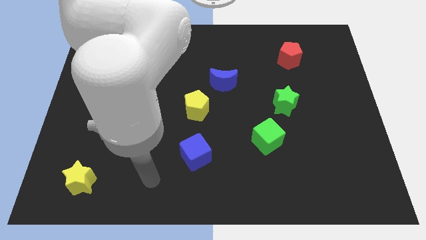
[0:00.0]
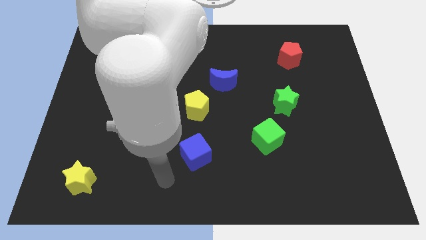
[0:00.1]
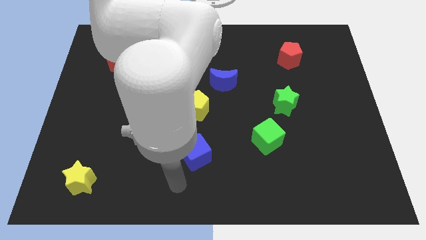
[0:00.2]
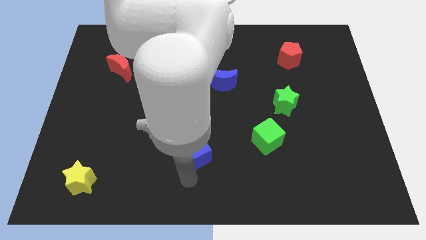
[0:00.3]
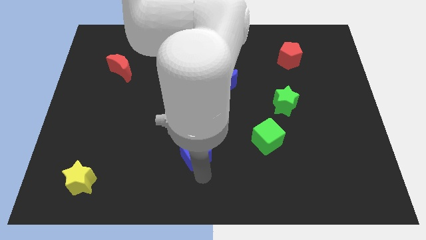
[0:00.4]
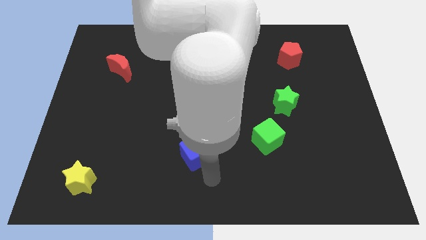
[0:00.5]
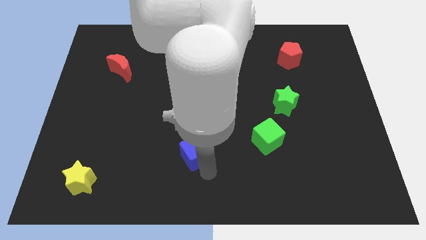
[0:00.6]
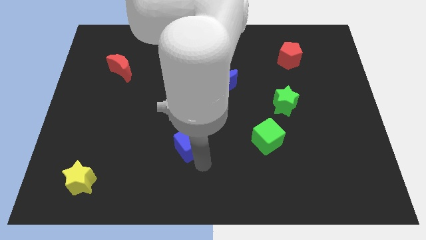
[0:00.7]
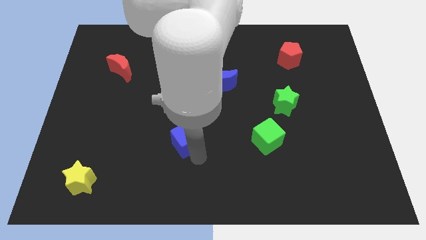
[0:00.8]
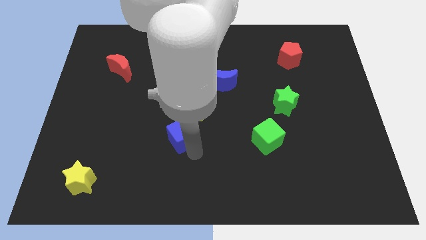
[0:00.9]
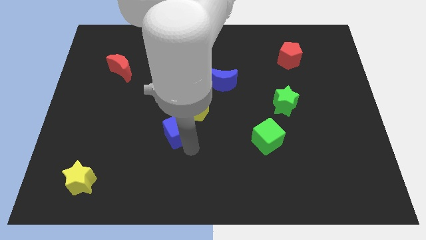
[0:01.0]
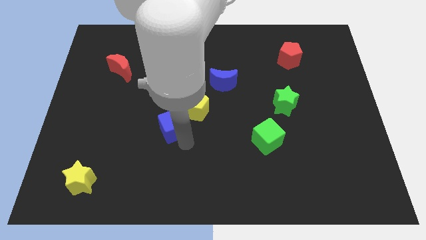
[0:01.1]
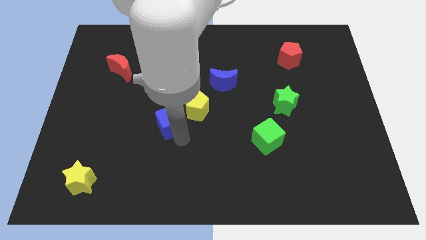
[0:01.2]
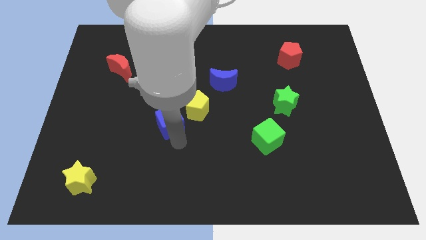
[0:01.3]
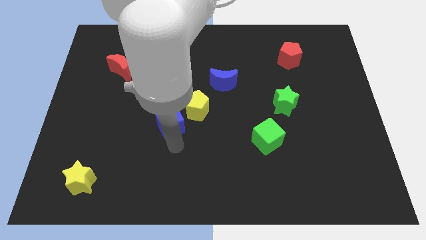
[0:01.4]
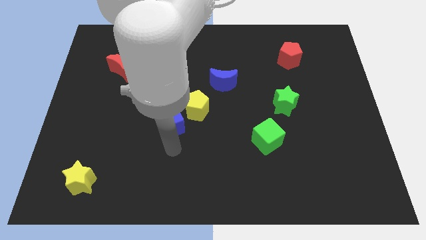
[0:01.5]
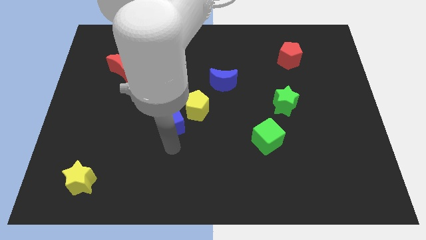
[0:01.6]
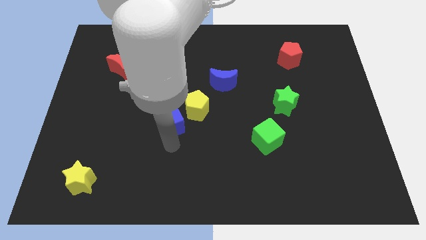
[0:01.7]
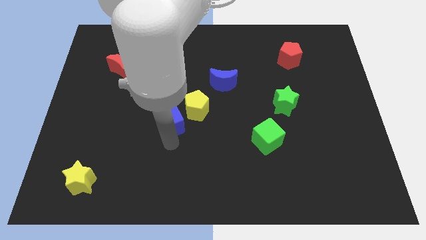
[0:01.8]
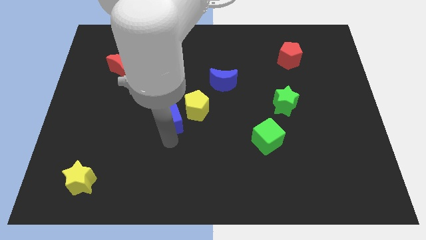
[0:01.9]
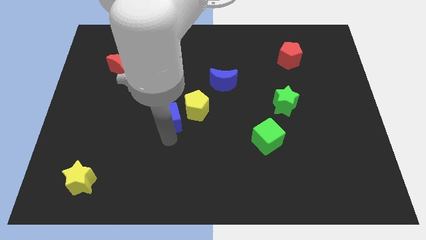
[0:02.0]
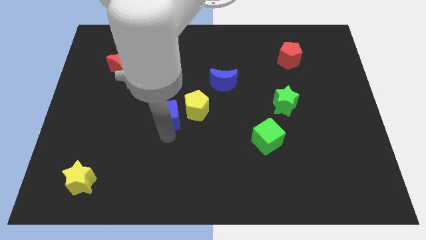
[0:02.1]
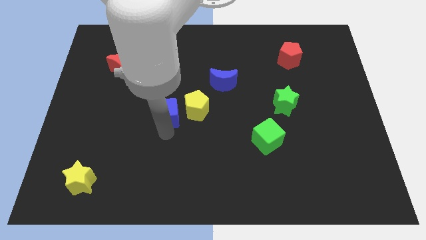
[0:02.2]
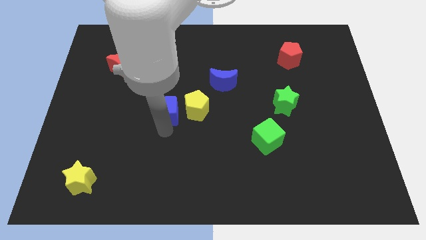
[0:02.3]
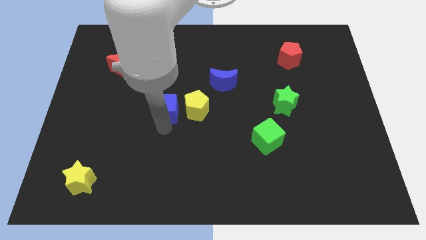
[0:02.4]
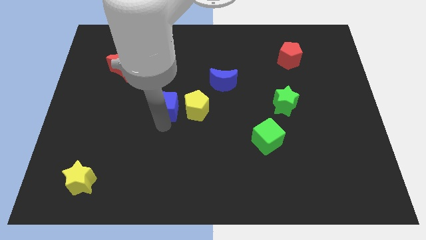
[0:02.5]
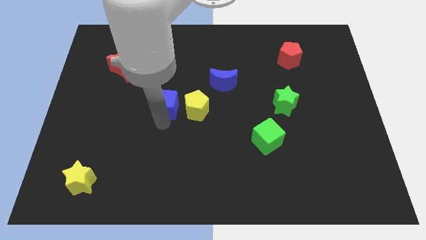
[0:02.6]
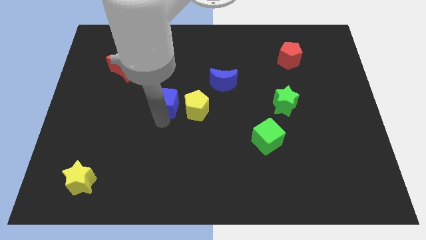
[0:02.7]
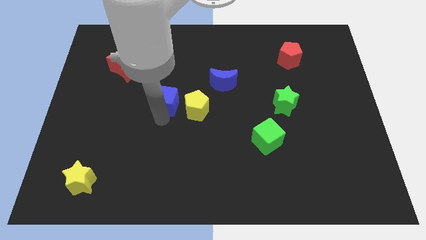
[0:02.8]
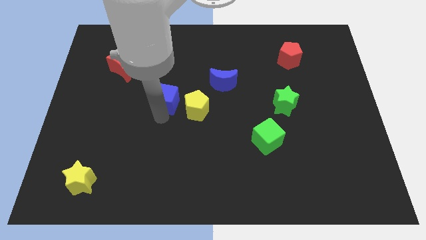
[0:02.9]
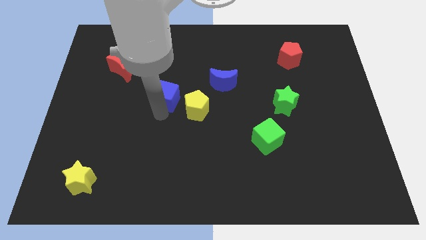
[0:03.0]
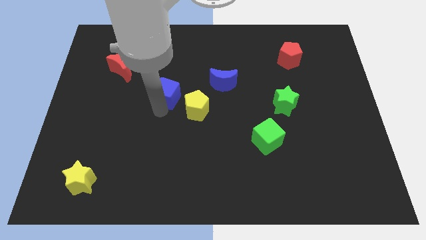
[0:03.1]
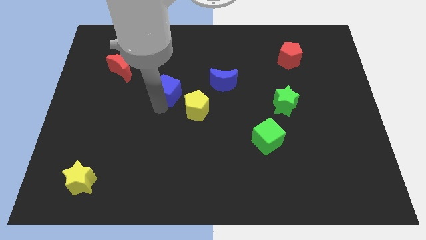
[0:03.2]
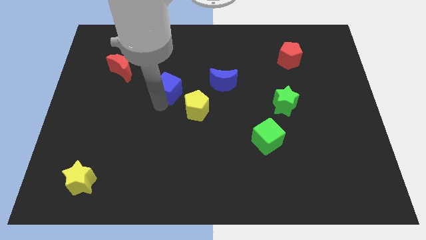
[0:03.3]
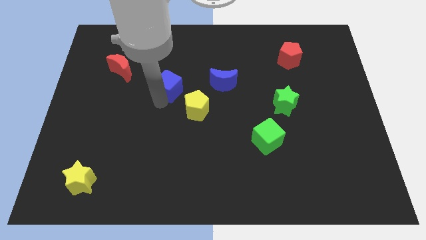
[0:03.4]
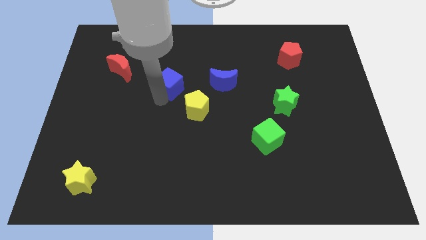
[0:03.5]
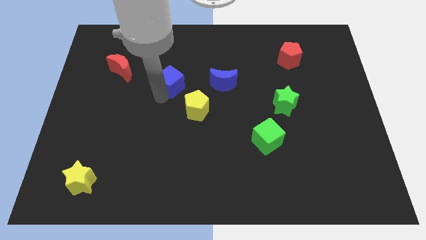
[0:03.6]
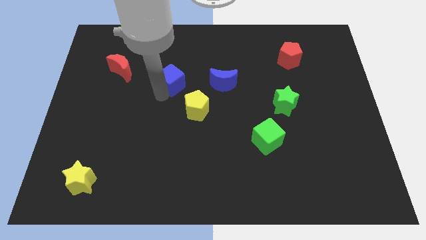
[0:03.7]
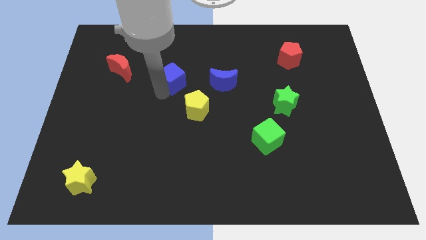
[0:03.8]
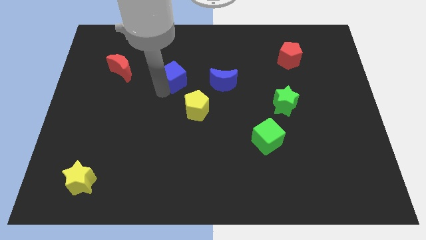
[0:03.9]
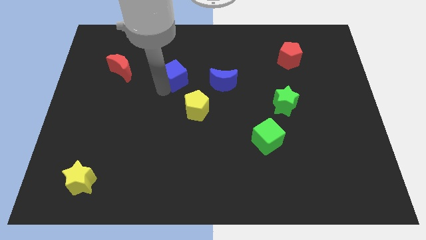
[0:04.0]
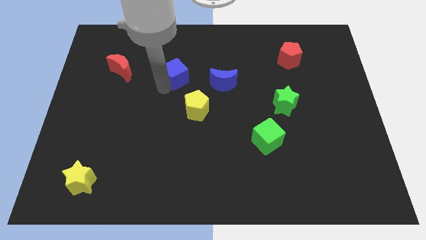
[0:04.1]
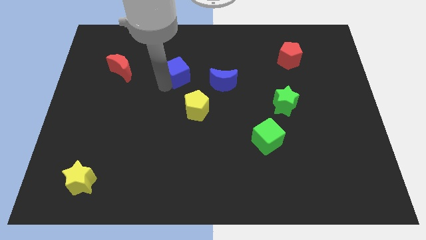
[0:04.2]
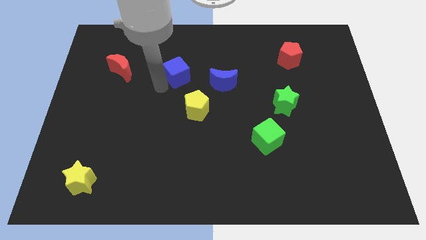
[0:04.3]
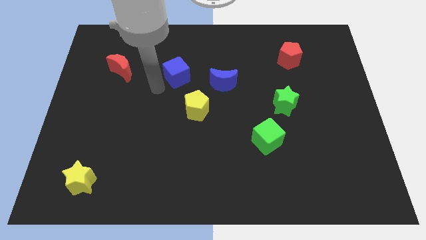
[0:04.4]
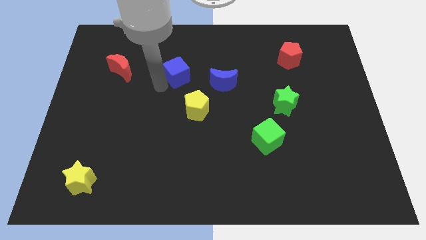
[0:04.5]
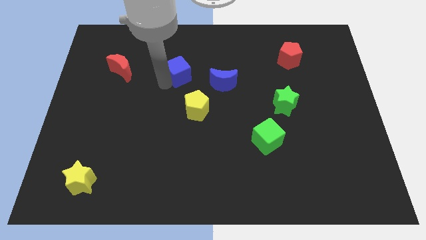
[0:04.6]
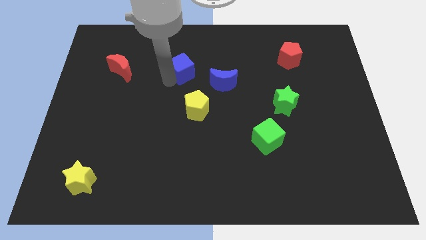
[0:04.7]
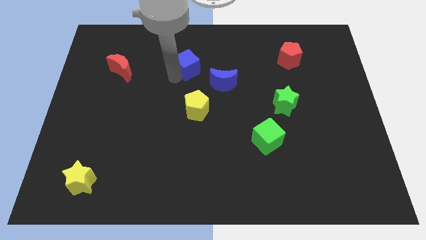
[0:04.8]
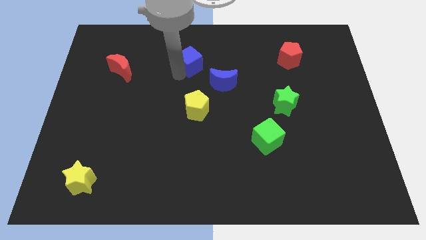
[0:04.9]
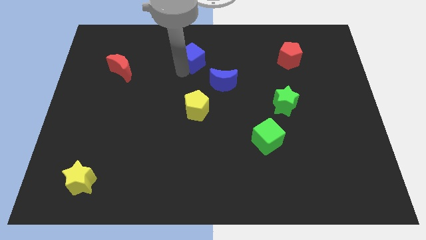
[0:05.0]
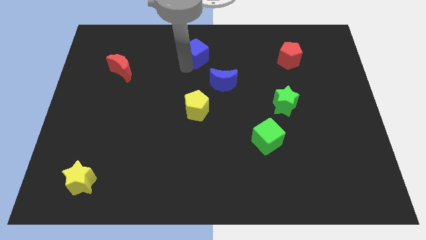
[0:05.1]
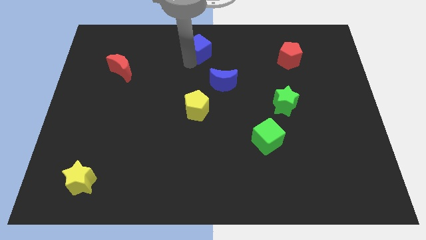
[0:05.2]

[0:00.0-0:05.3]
push the blue cube to the towards your base

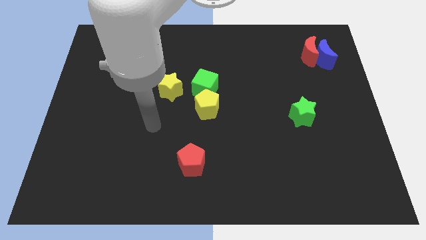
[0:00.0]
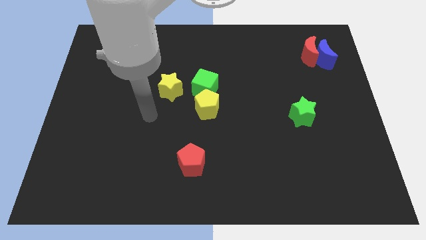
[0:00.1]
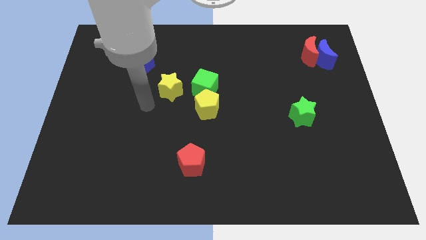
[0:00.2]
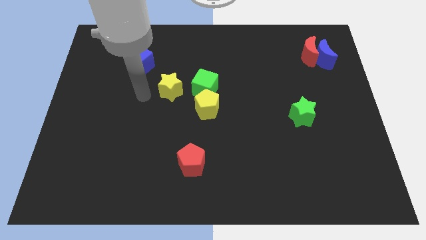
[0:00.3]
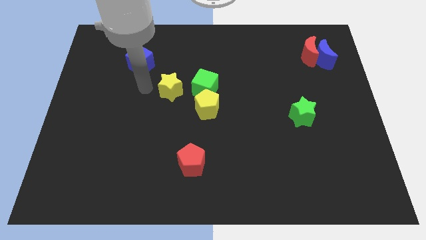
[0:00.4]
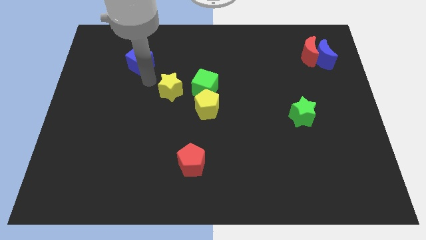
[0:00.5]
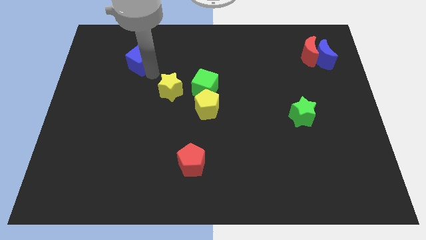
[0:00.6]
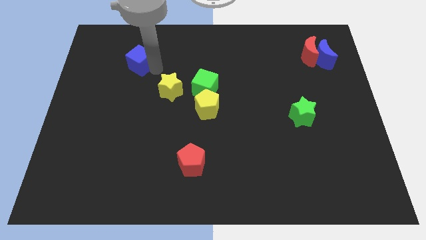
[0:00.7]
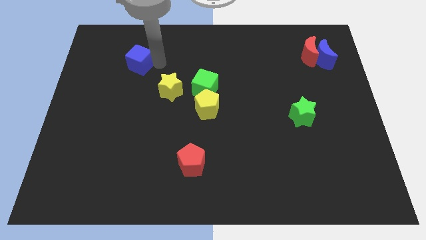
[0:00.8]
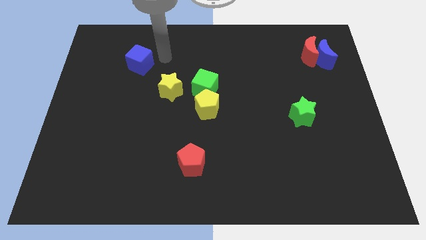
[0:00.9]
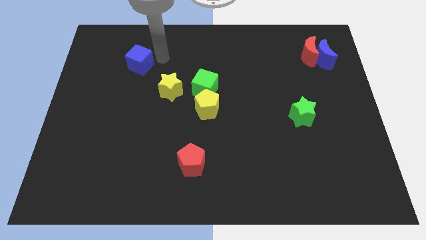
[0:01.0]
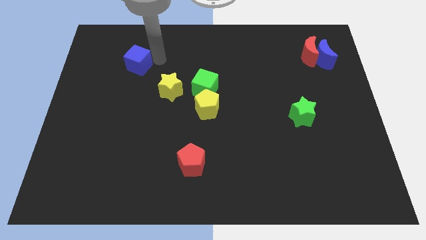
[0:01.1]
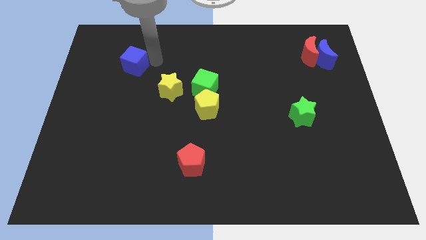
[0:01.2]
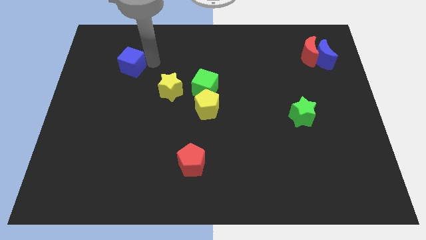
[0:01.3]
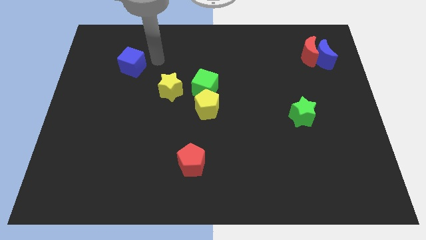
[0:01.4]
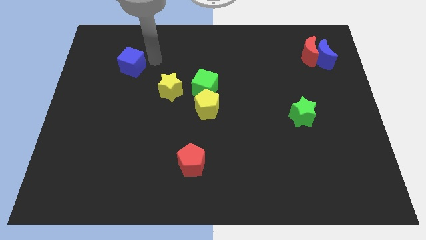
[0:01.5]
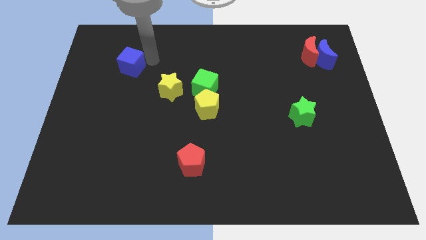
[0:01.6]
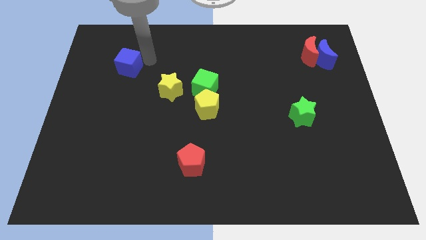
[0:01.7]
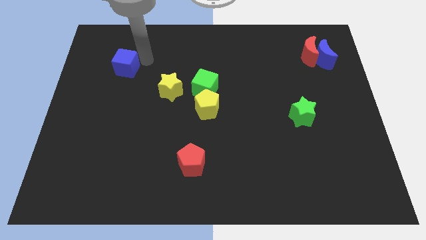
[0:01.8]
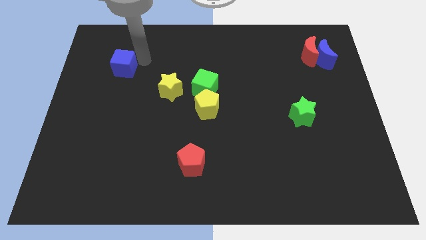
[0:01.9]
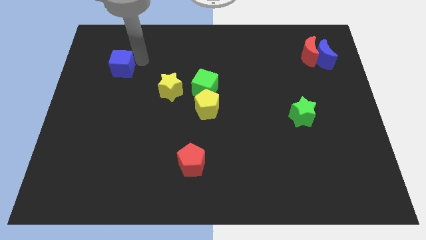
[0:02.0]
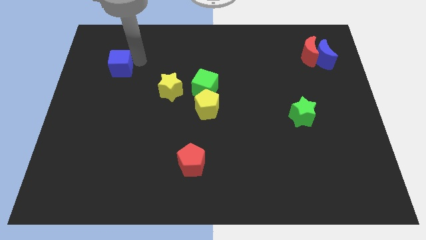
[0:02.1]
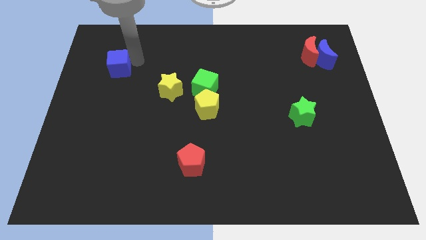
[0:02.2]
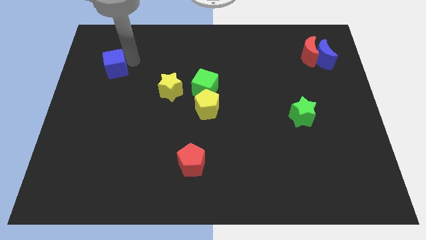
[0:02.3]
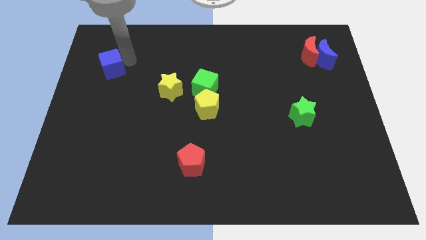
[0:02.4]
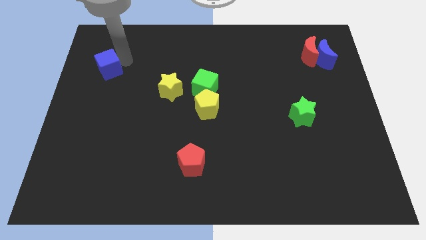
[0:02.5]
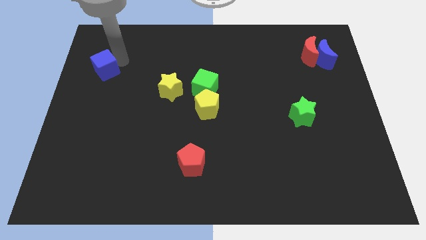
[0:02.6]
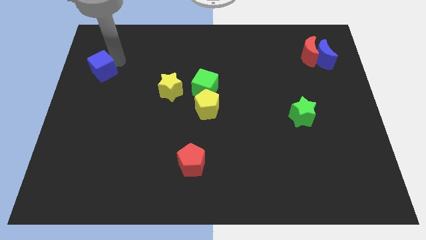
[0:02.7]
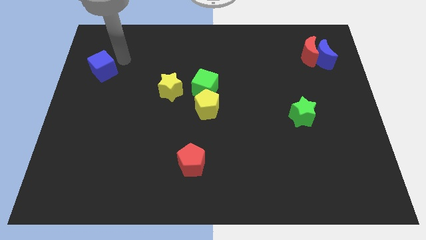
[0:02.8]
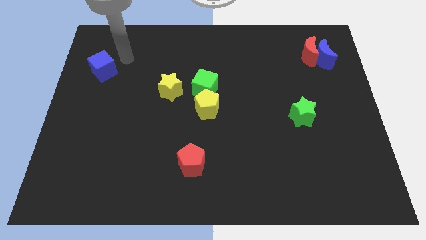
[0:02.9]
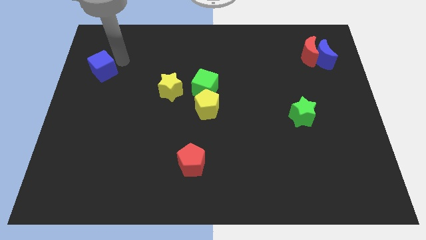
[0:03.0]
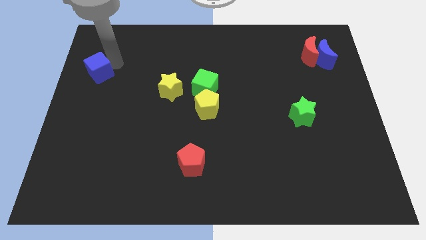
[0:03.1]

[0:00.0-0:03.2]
put the blue cube to the center left
